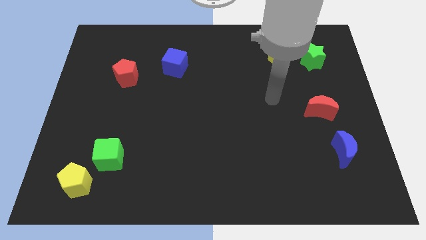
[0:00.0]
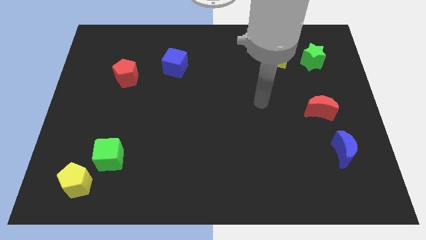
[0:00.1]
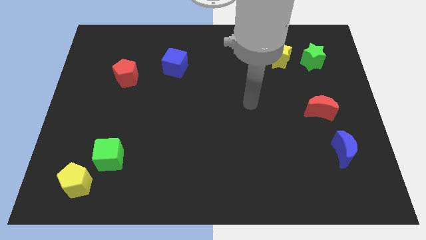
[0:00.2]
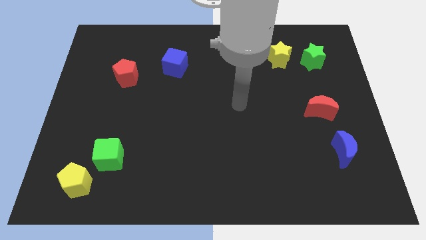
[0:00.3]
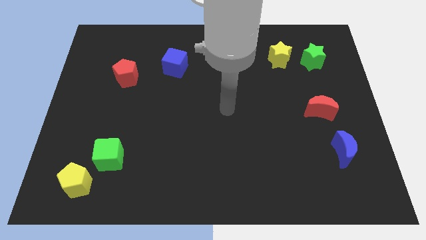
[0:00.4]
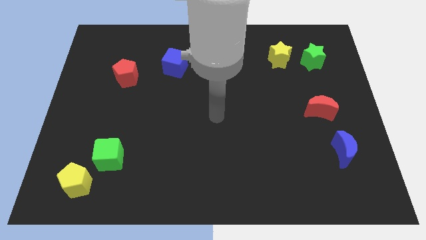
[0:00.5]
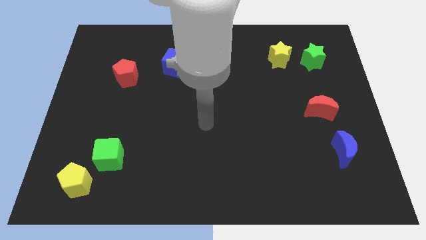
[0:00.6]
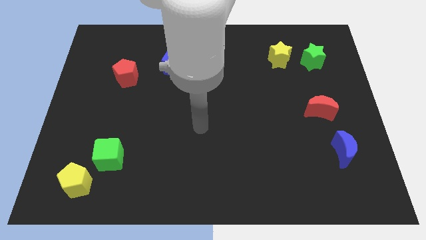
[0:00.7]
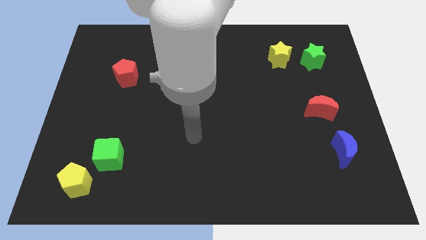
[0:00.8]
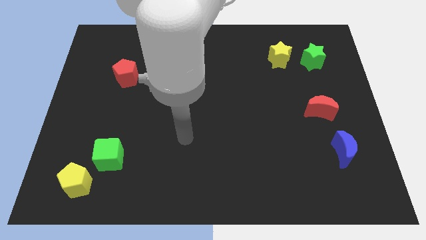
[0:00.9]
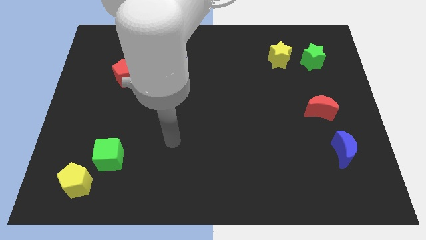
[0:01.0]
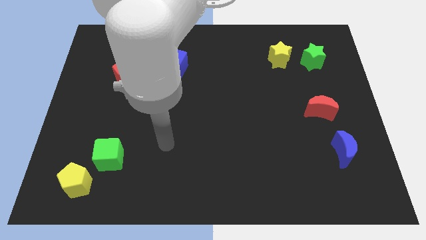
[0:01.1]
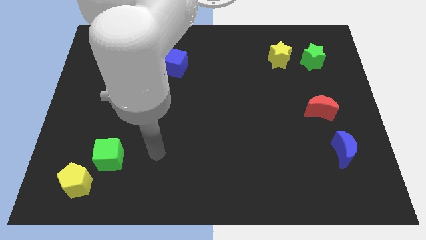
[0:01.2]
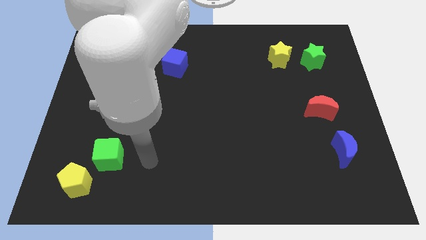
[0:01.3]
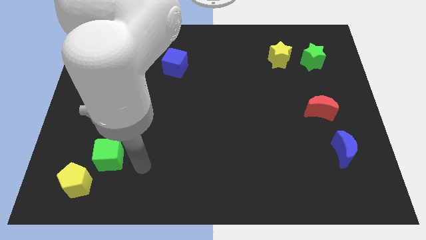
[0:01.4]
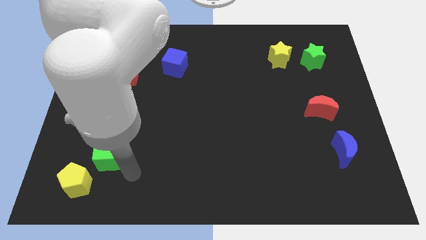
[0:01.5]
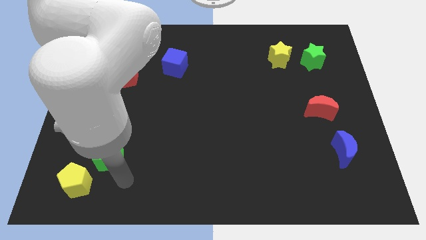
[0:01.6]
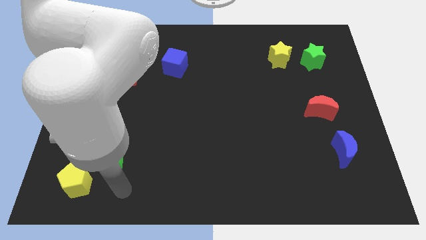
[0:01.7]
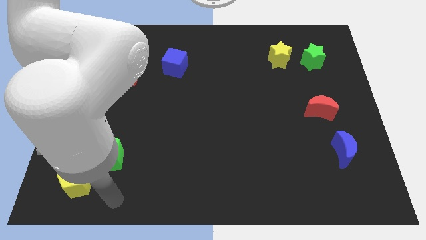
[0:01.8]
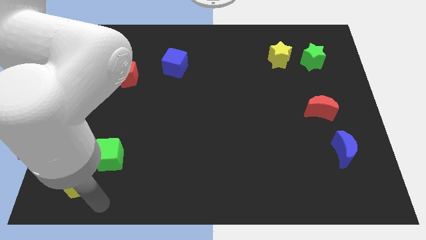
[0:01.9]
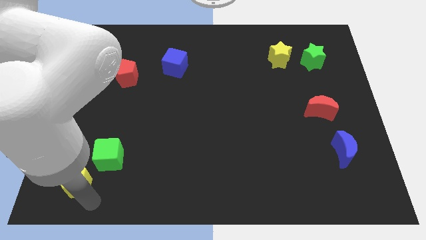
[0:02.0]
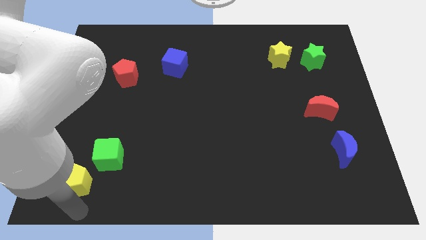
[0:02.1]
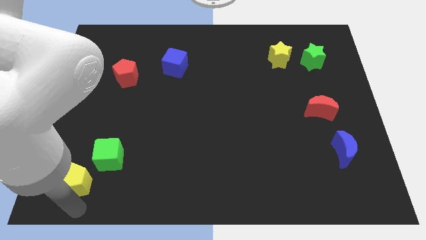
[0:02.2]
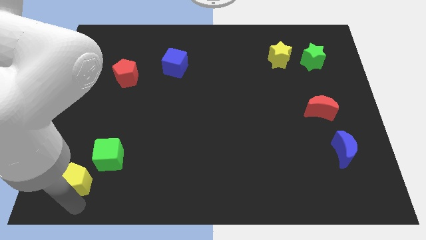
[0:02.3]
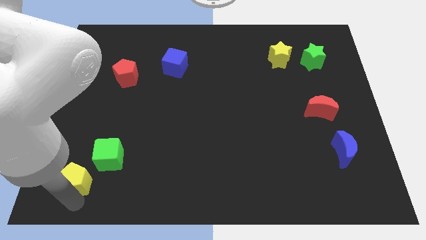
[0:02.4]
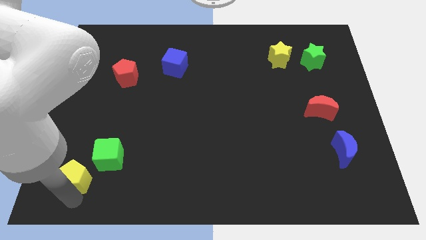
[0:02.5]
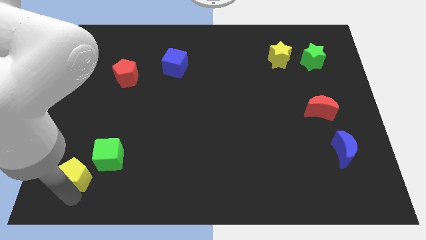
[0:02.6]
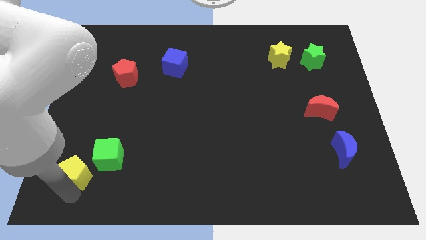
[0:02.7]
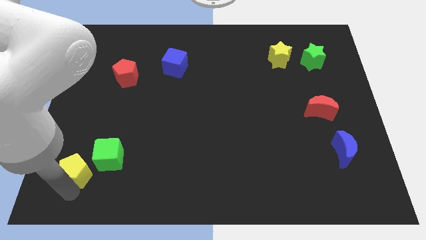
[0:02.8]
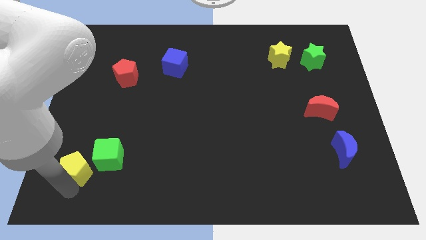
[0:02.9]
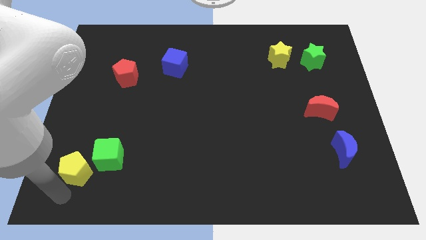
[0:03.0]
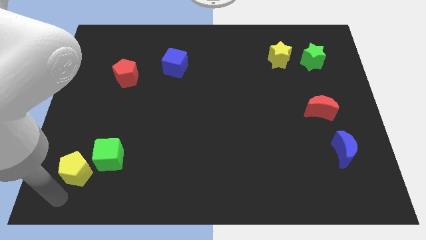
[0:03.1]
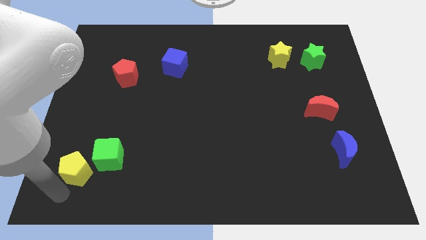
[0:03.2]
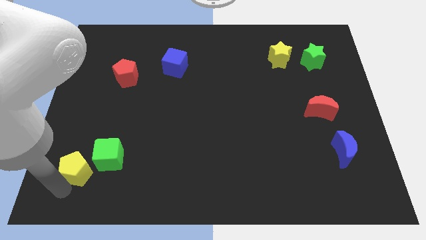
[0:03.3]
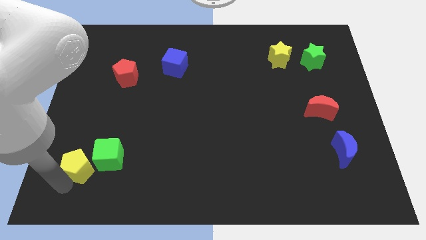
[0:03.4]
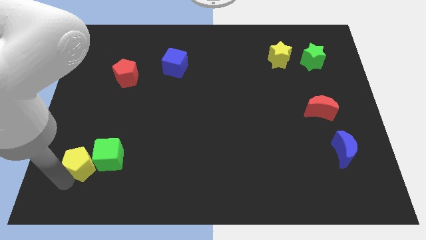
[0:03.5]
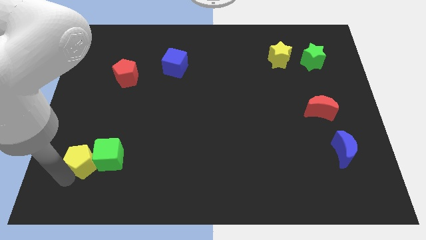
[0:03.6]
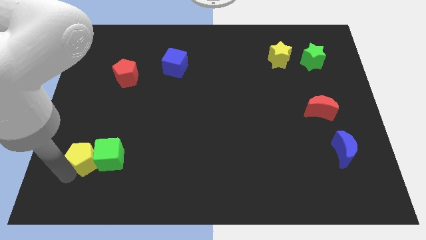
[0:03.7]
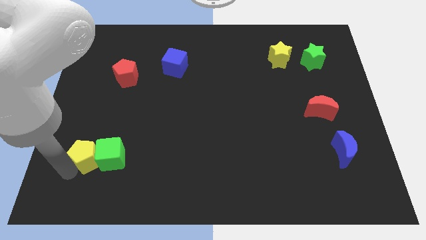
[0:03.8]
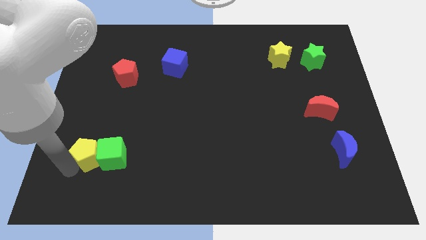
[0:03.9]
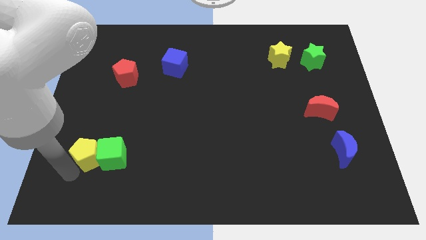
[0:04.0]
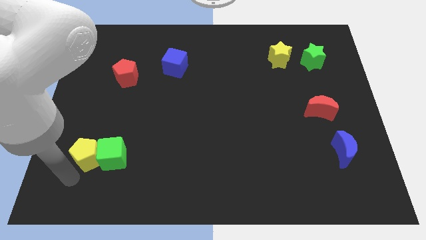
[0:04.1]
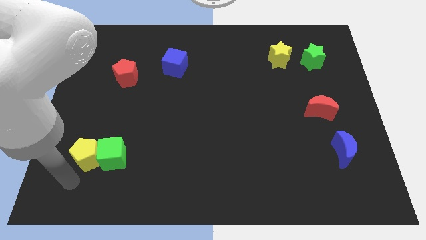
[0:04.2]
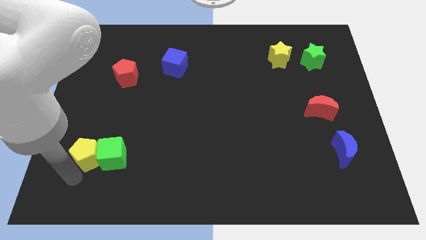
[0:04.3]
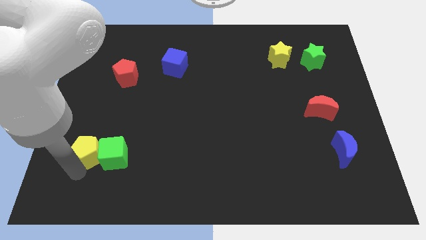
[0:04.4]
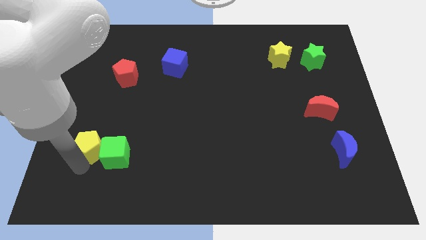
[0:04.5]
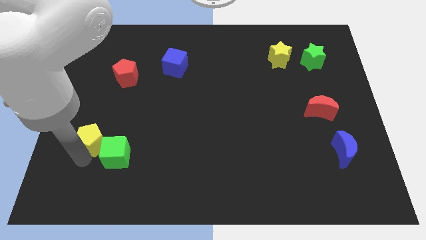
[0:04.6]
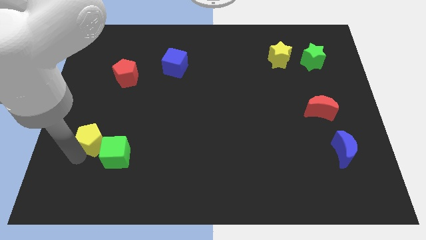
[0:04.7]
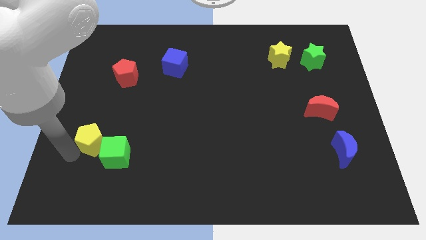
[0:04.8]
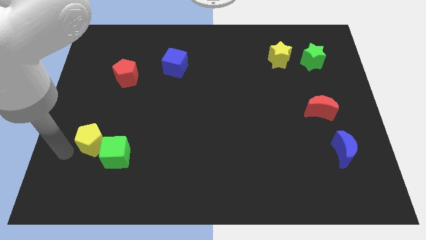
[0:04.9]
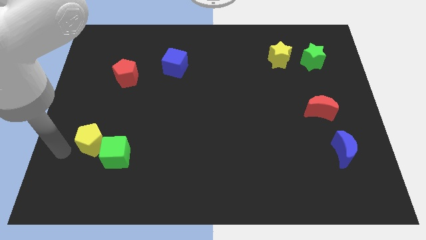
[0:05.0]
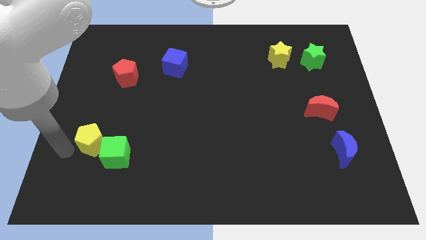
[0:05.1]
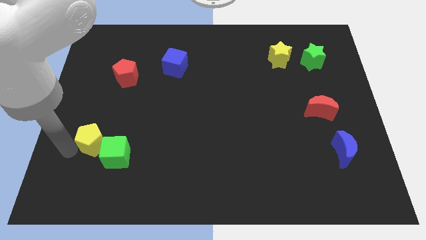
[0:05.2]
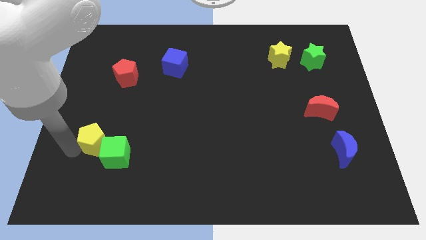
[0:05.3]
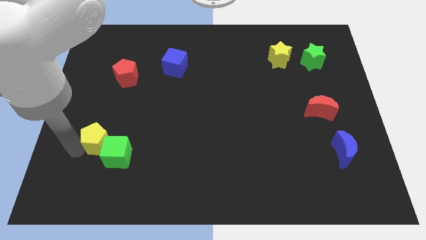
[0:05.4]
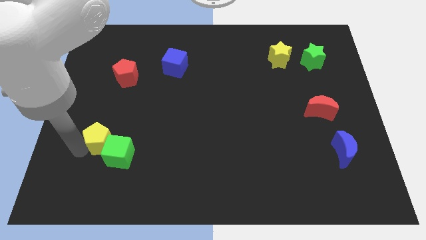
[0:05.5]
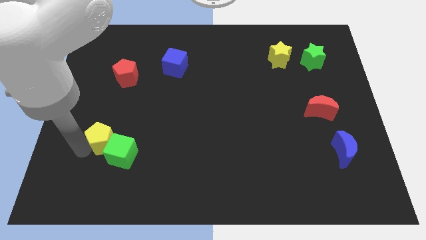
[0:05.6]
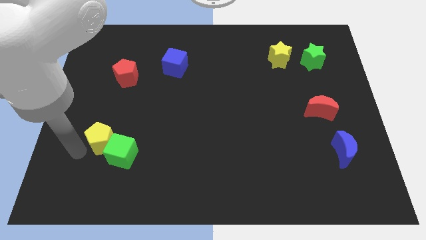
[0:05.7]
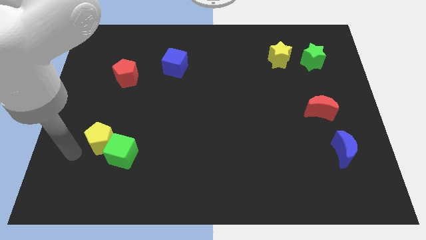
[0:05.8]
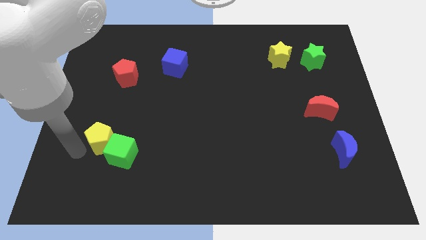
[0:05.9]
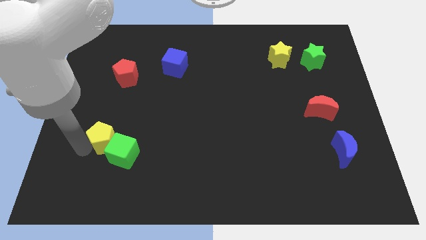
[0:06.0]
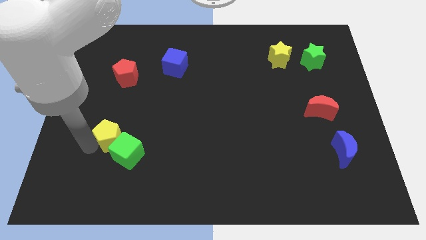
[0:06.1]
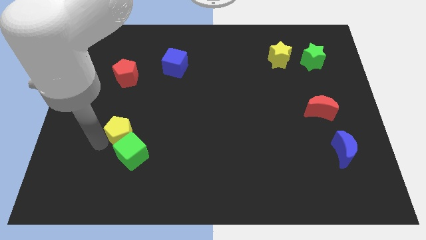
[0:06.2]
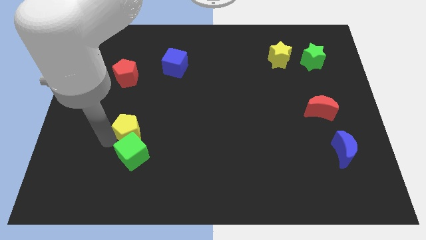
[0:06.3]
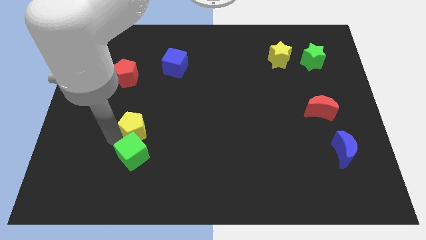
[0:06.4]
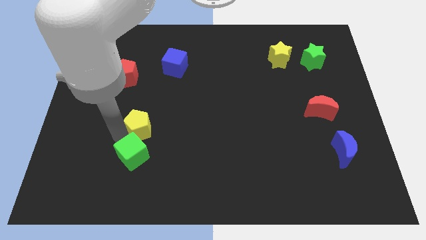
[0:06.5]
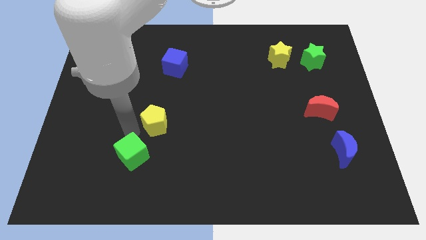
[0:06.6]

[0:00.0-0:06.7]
move the yellow pentagon up and then right

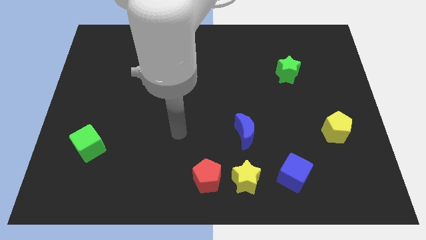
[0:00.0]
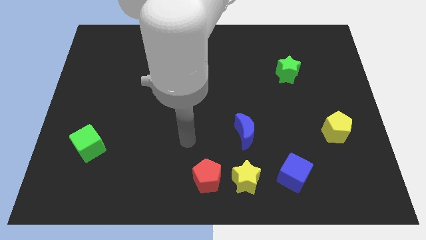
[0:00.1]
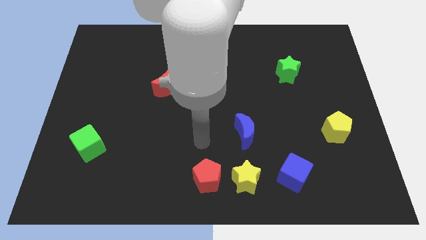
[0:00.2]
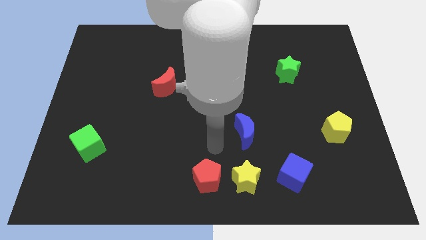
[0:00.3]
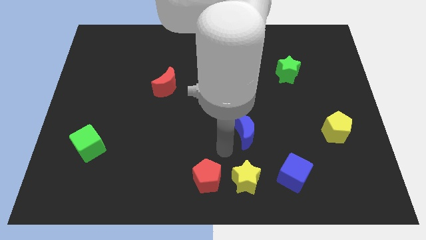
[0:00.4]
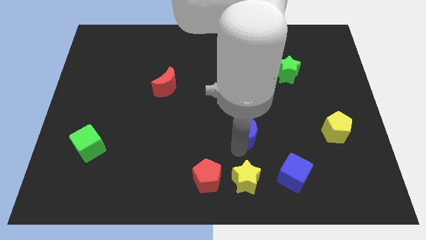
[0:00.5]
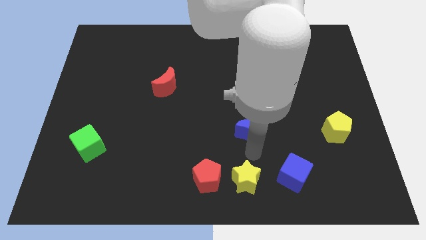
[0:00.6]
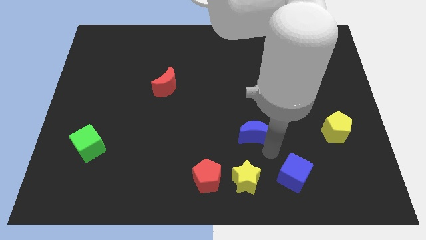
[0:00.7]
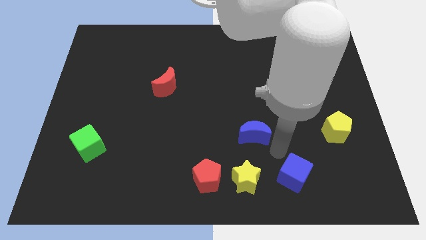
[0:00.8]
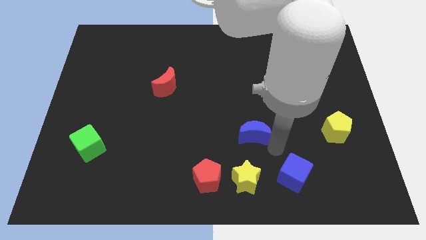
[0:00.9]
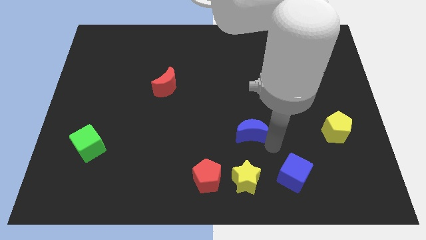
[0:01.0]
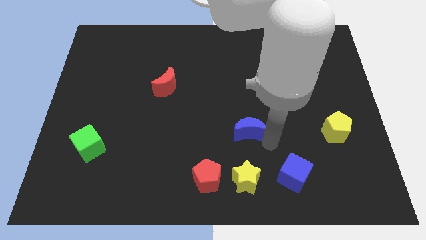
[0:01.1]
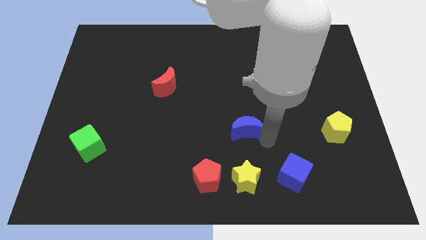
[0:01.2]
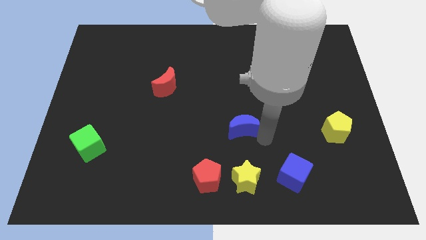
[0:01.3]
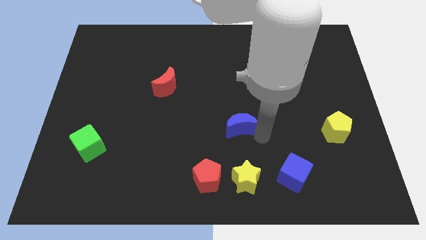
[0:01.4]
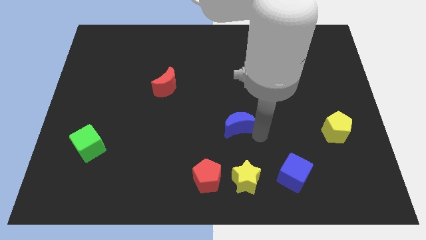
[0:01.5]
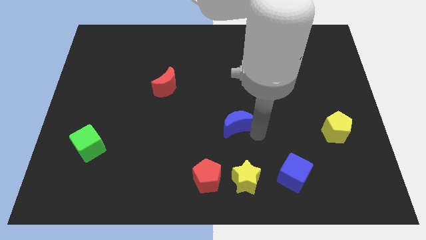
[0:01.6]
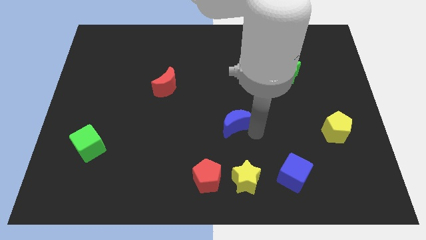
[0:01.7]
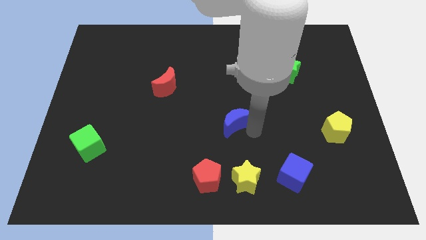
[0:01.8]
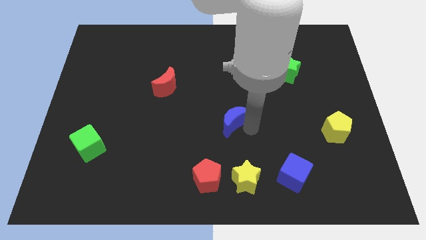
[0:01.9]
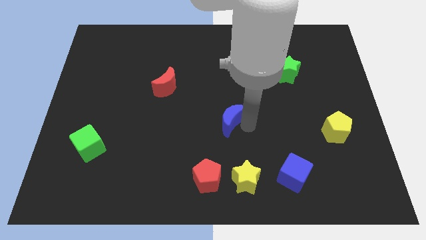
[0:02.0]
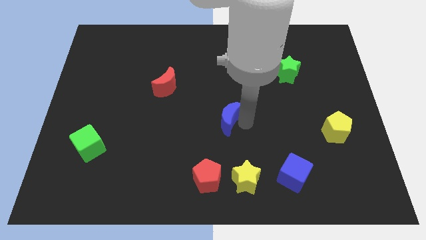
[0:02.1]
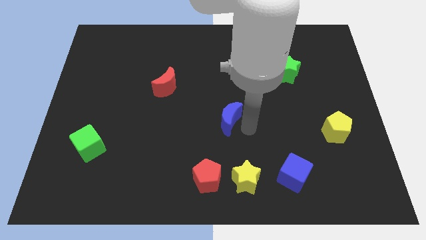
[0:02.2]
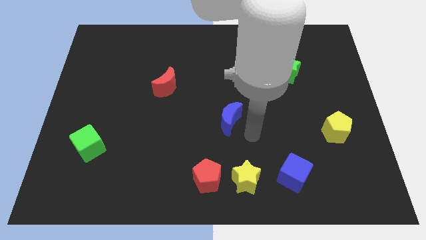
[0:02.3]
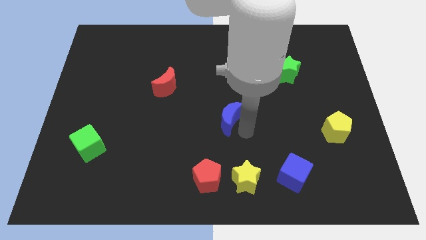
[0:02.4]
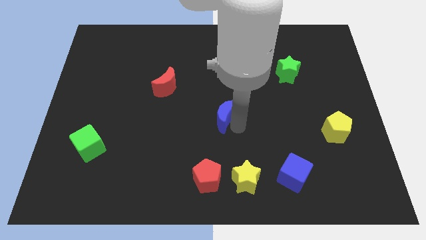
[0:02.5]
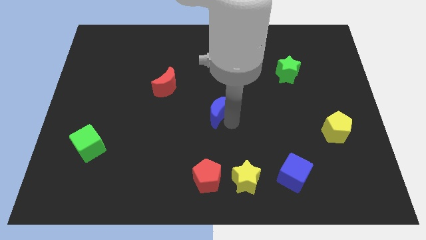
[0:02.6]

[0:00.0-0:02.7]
move the blue moon a little upwards and to the left
